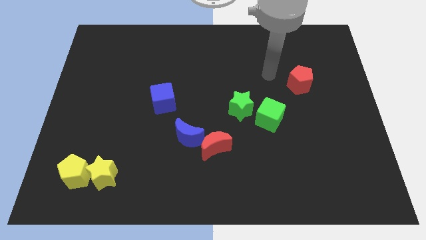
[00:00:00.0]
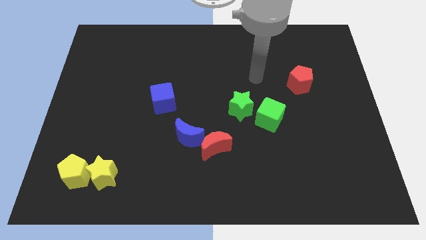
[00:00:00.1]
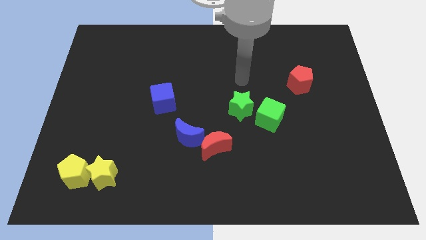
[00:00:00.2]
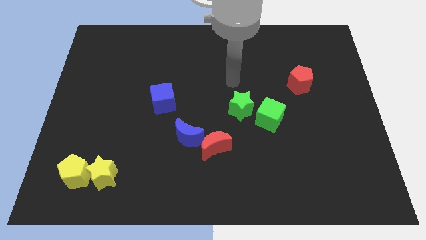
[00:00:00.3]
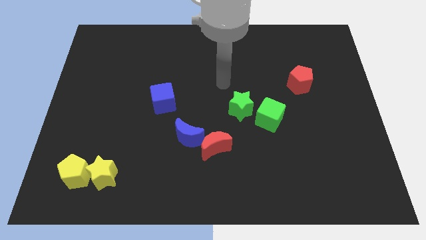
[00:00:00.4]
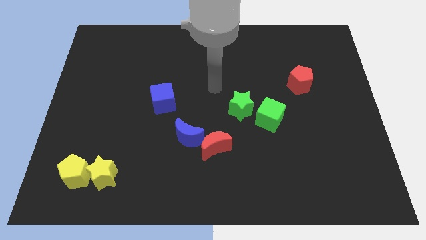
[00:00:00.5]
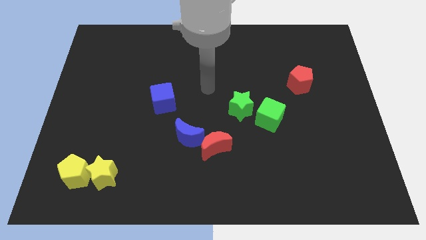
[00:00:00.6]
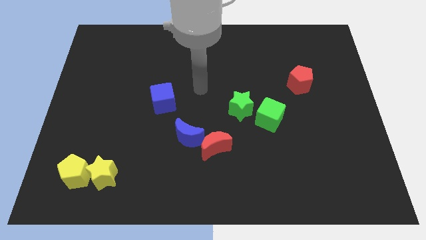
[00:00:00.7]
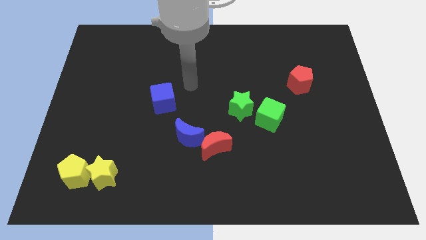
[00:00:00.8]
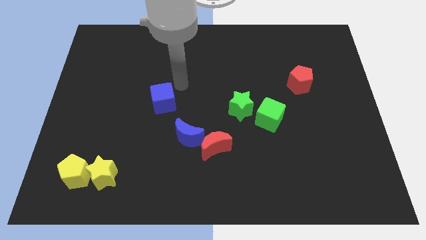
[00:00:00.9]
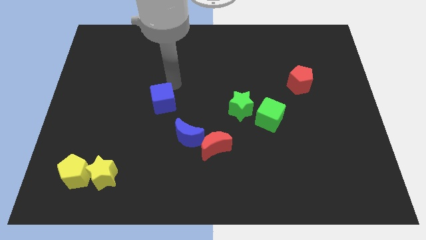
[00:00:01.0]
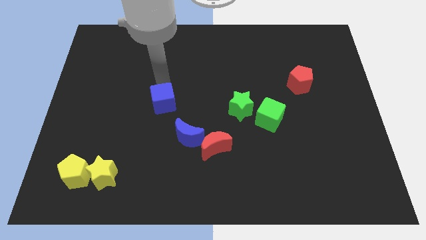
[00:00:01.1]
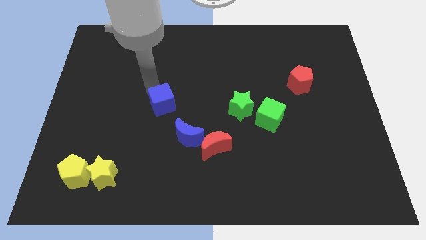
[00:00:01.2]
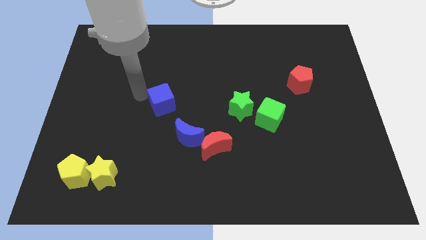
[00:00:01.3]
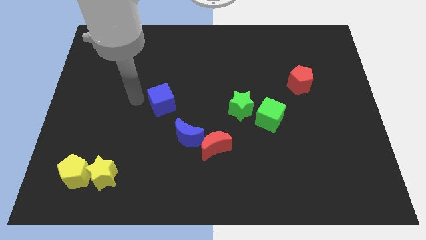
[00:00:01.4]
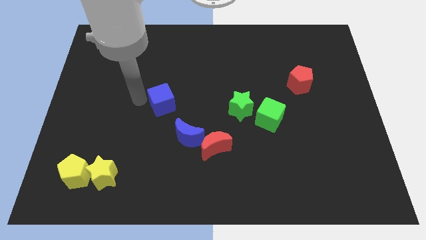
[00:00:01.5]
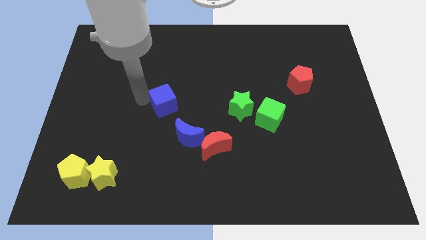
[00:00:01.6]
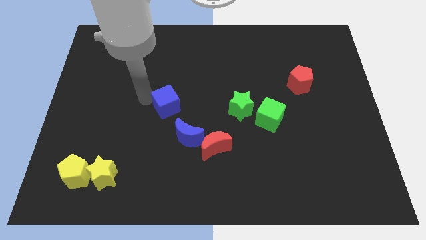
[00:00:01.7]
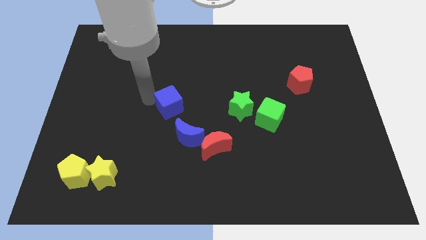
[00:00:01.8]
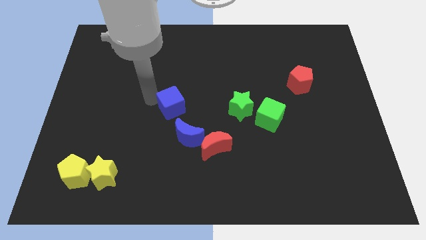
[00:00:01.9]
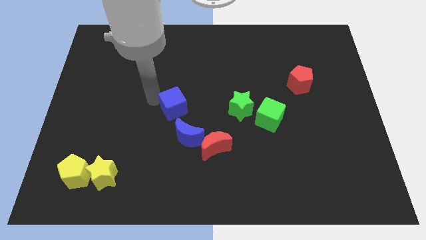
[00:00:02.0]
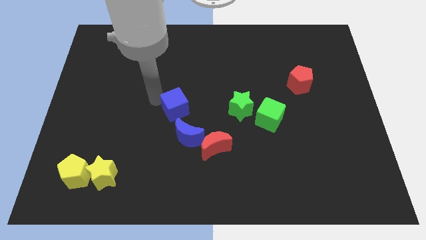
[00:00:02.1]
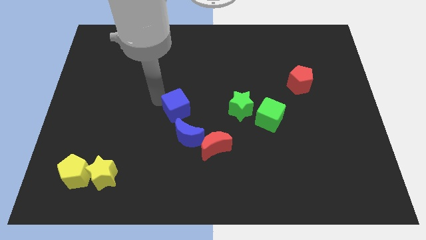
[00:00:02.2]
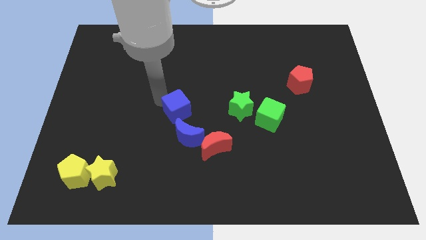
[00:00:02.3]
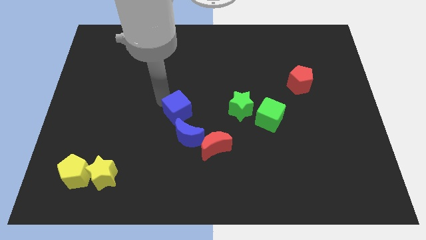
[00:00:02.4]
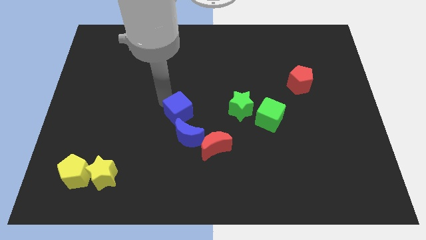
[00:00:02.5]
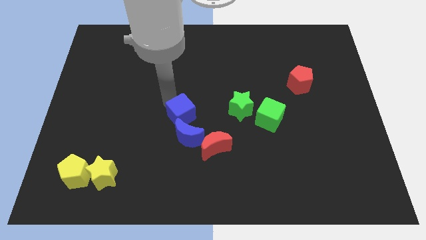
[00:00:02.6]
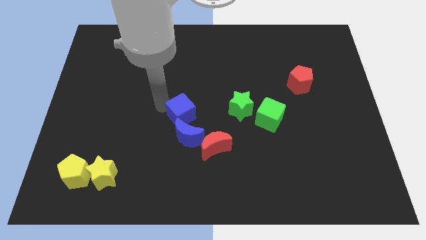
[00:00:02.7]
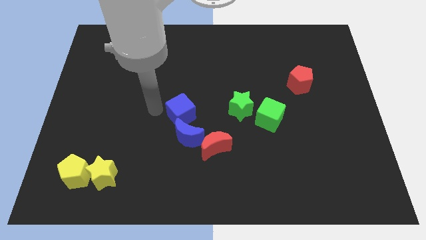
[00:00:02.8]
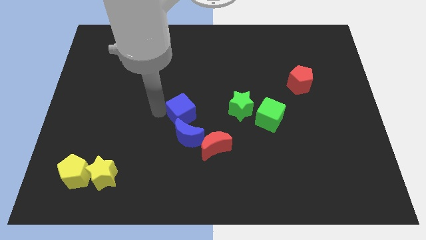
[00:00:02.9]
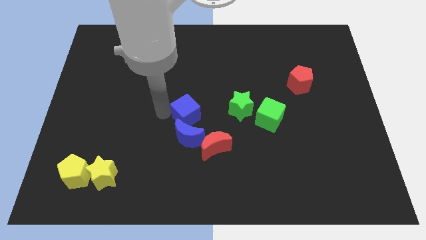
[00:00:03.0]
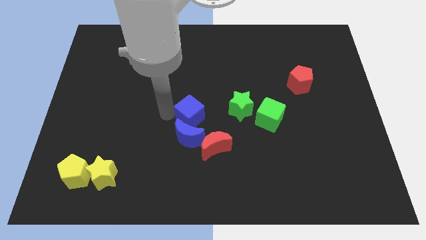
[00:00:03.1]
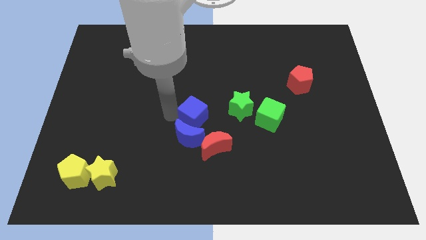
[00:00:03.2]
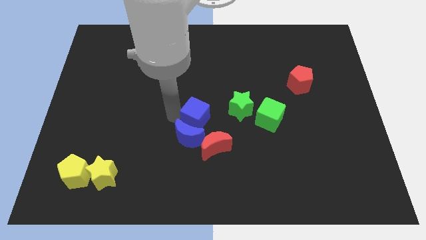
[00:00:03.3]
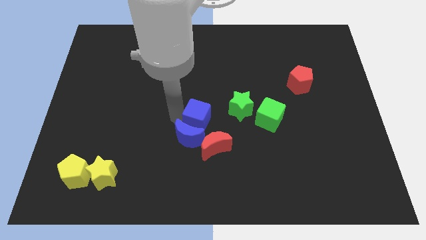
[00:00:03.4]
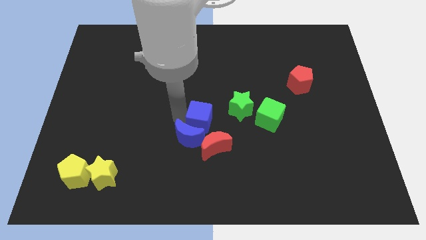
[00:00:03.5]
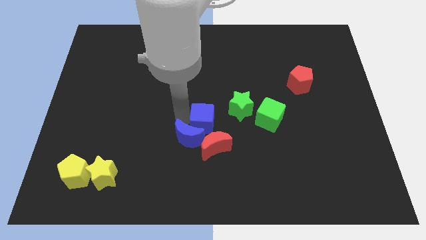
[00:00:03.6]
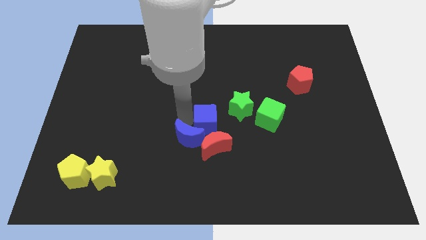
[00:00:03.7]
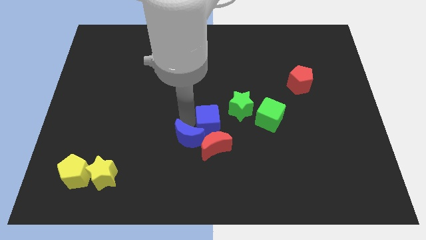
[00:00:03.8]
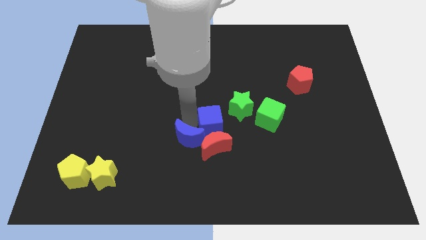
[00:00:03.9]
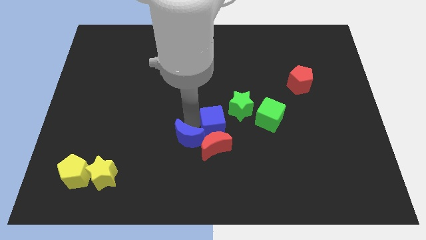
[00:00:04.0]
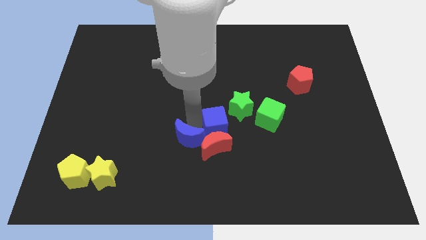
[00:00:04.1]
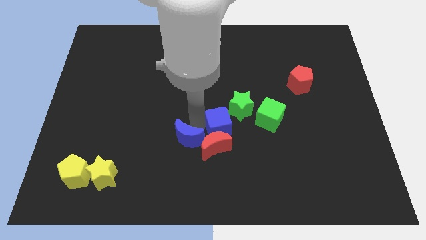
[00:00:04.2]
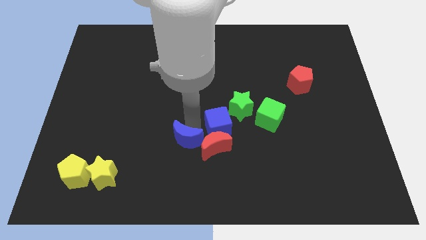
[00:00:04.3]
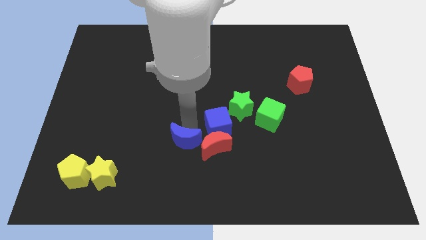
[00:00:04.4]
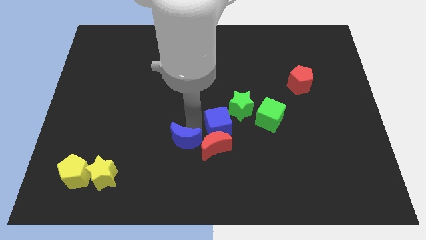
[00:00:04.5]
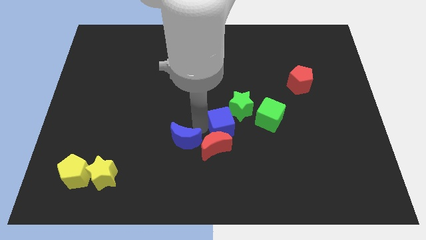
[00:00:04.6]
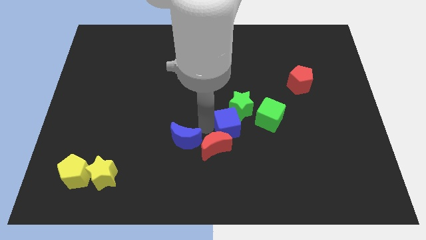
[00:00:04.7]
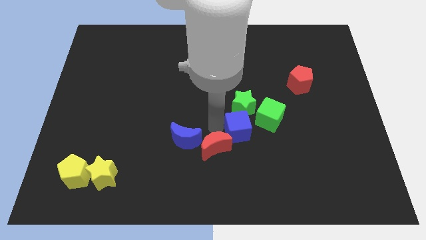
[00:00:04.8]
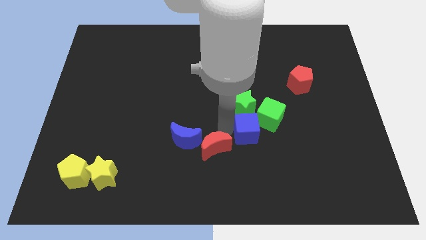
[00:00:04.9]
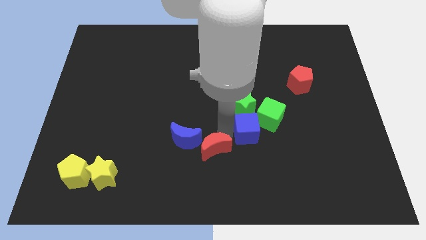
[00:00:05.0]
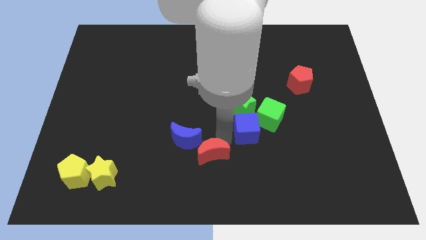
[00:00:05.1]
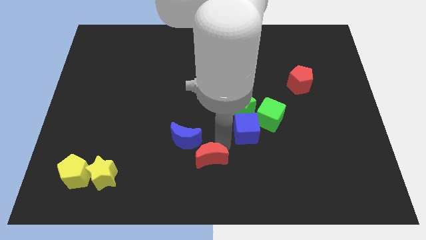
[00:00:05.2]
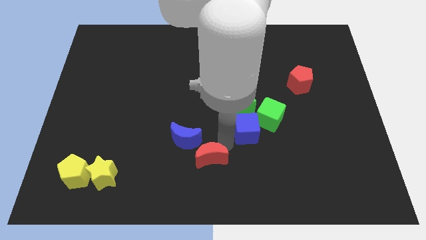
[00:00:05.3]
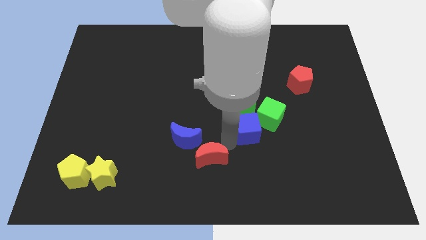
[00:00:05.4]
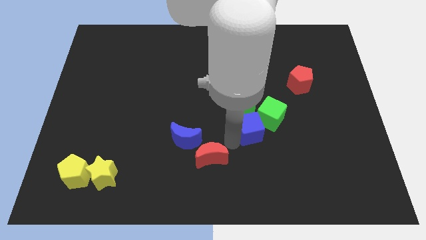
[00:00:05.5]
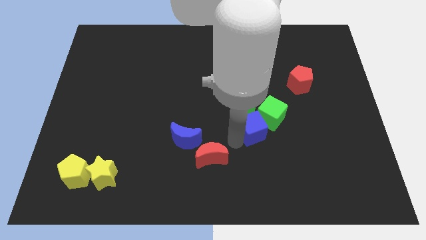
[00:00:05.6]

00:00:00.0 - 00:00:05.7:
put the blue cube to the green cube

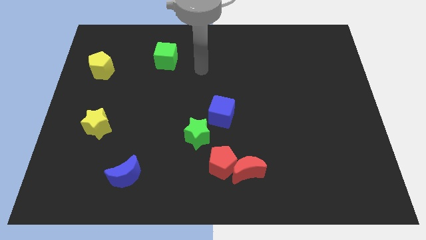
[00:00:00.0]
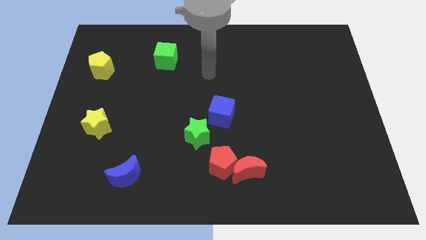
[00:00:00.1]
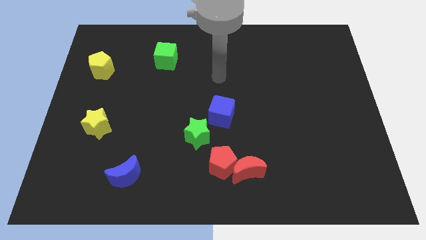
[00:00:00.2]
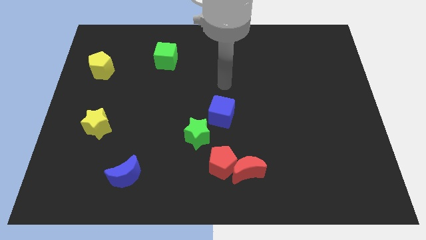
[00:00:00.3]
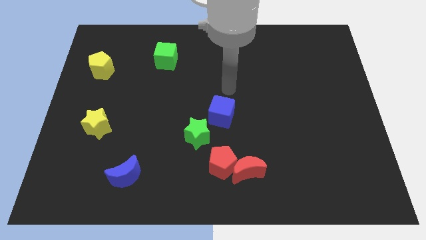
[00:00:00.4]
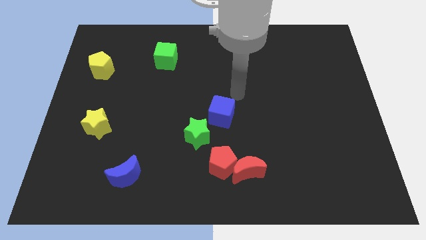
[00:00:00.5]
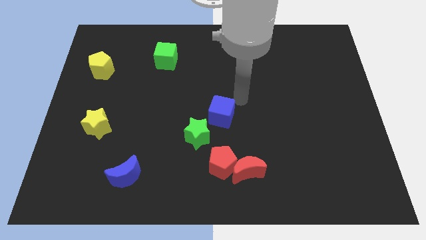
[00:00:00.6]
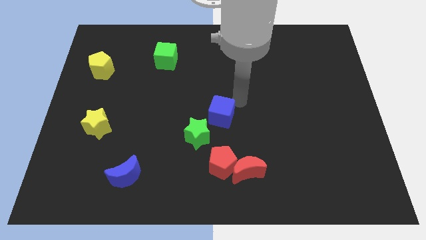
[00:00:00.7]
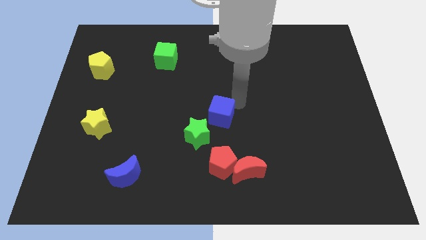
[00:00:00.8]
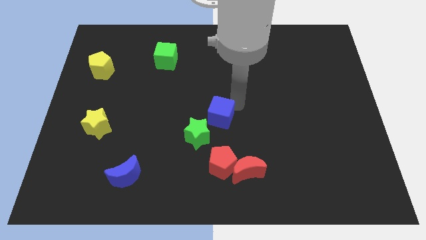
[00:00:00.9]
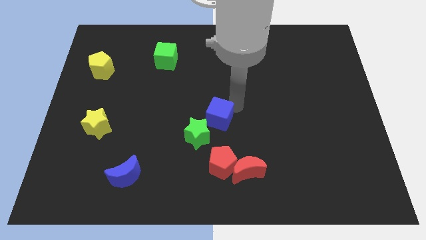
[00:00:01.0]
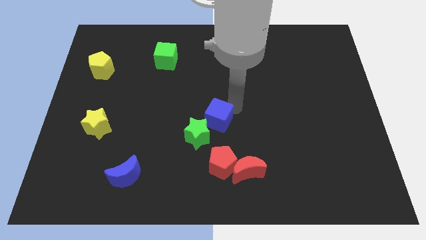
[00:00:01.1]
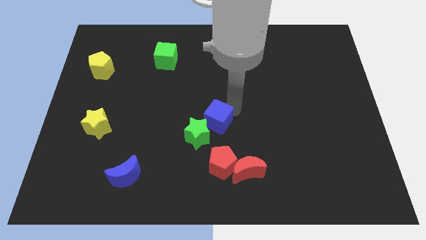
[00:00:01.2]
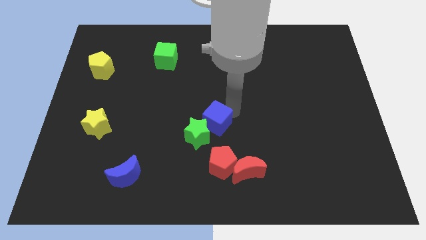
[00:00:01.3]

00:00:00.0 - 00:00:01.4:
put the blue cube towards the green star
